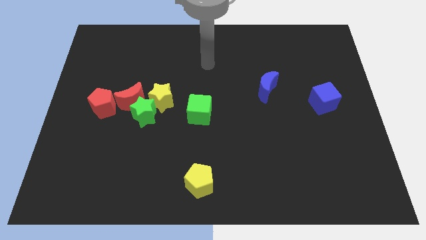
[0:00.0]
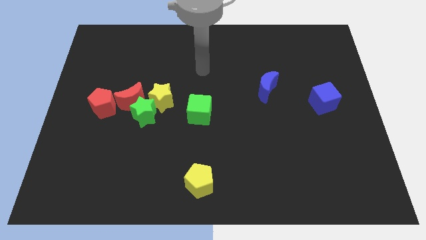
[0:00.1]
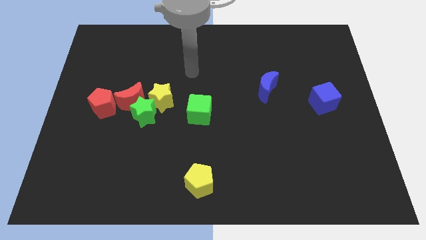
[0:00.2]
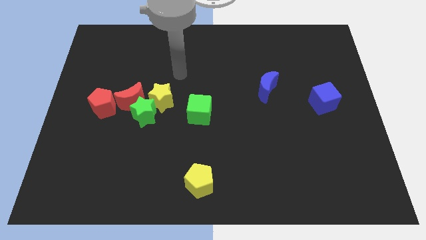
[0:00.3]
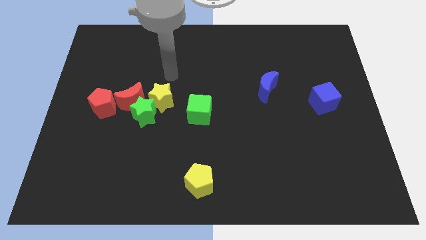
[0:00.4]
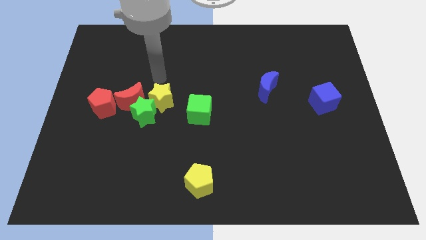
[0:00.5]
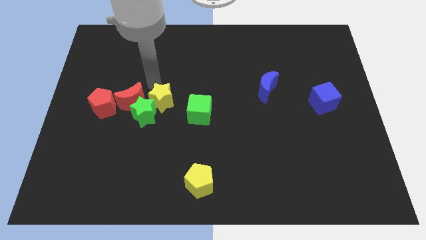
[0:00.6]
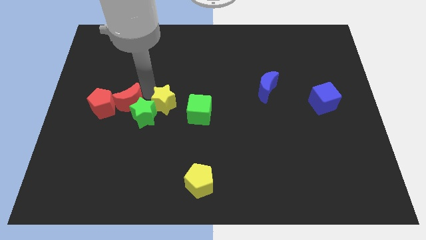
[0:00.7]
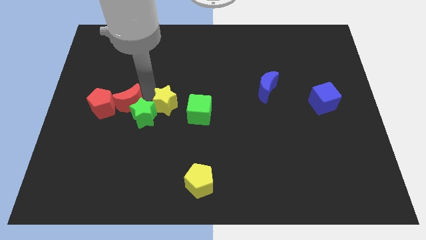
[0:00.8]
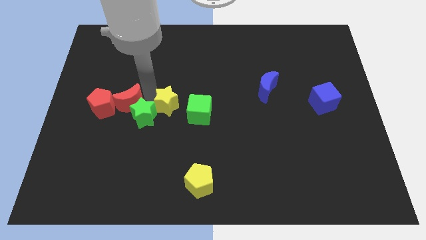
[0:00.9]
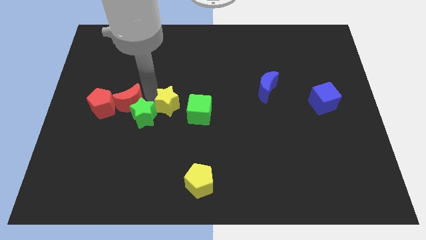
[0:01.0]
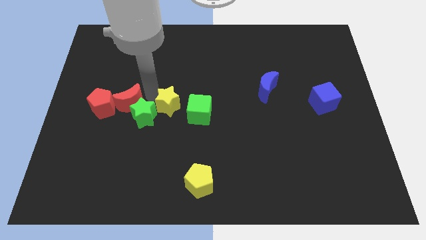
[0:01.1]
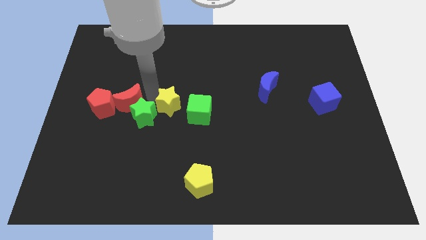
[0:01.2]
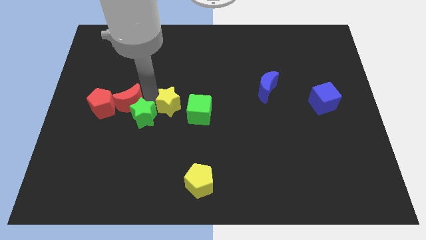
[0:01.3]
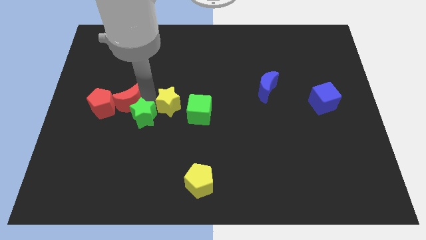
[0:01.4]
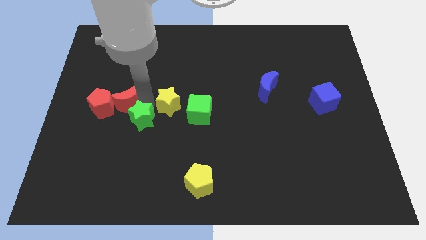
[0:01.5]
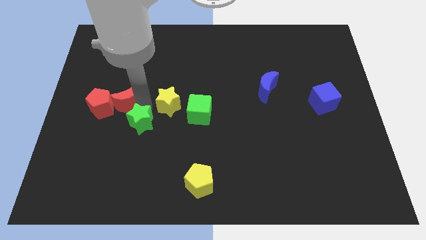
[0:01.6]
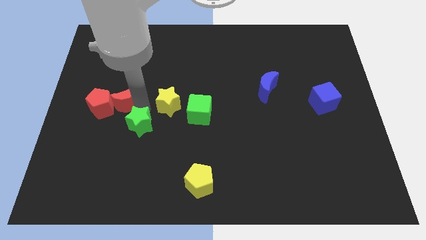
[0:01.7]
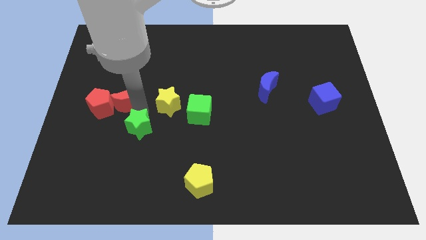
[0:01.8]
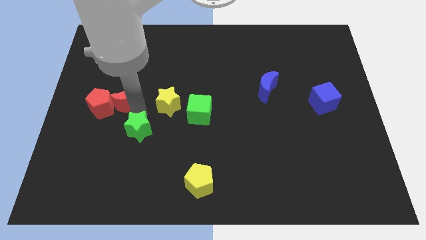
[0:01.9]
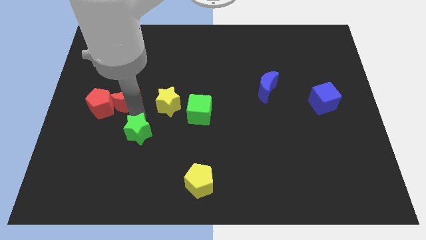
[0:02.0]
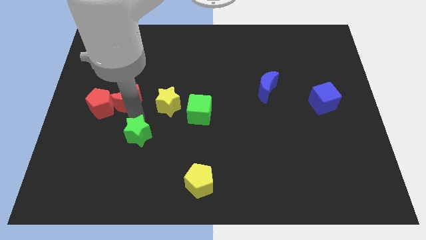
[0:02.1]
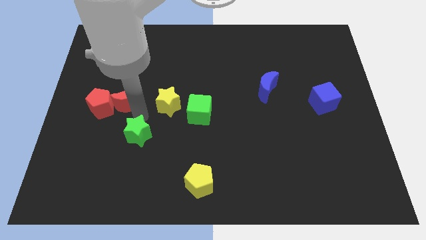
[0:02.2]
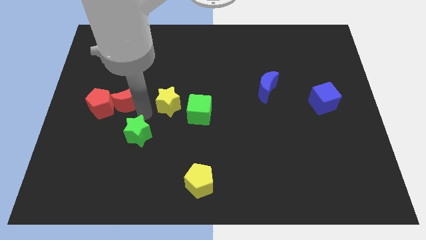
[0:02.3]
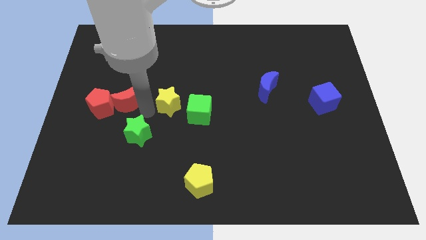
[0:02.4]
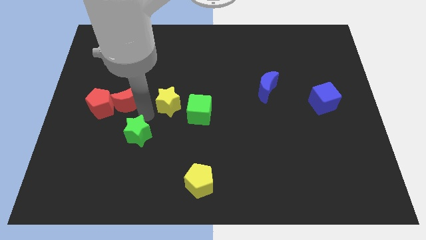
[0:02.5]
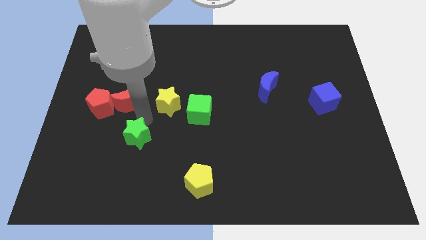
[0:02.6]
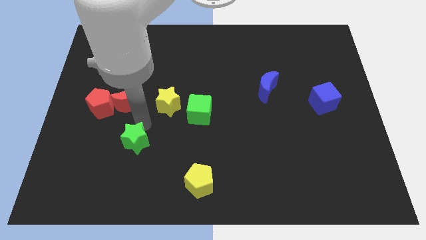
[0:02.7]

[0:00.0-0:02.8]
separate the green star from the red moon and yellow star

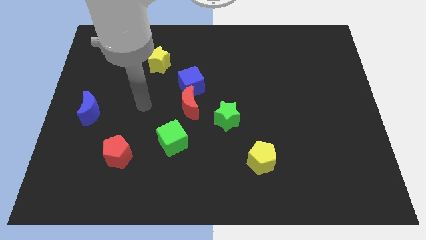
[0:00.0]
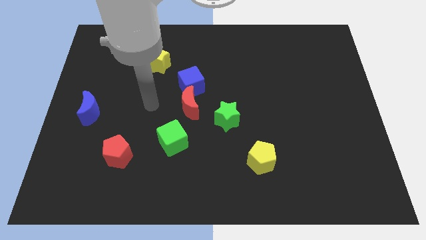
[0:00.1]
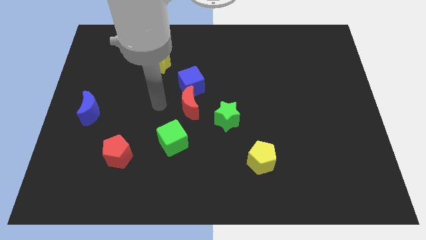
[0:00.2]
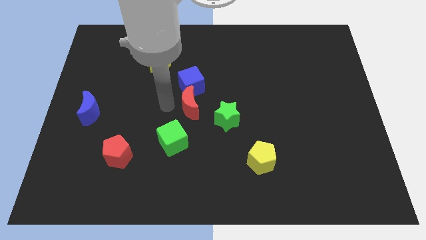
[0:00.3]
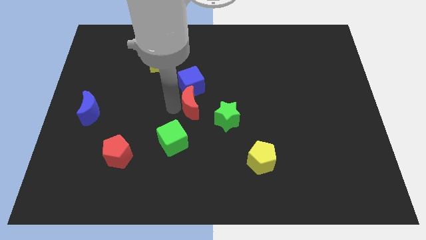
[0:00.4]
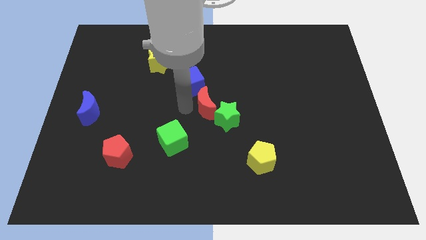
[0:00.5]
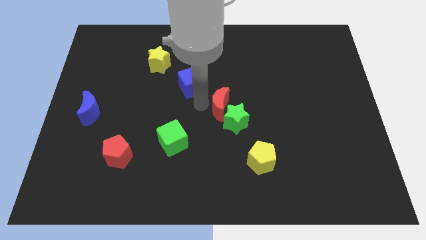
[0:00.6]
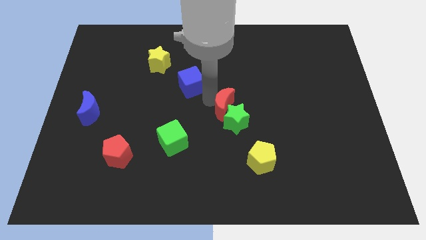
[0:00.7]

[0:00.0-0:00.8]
separate the blue cube from the red moon

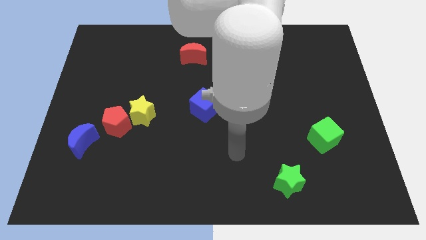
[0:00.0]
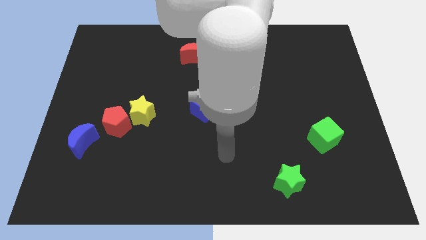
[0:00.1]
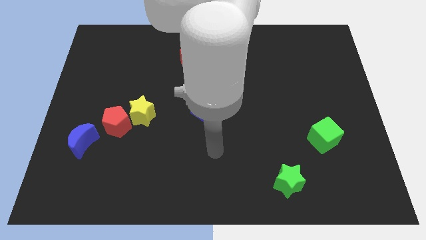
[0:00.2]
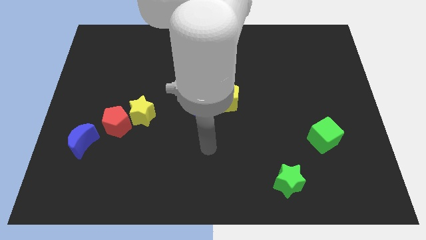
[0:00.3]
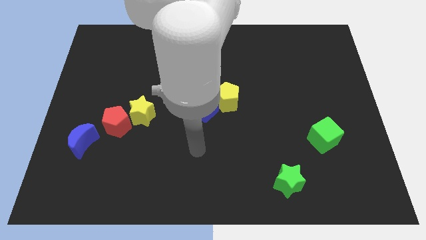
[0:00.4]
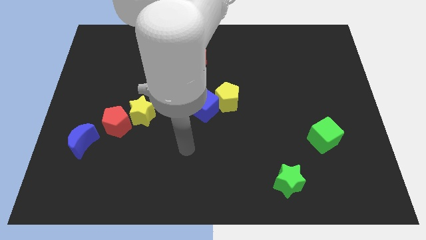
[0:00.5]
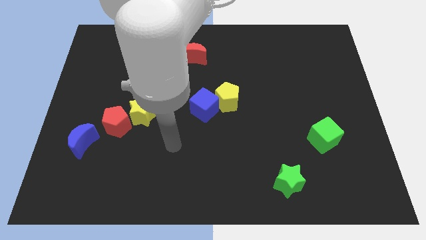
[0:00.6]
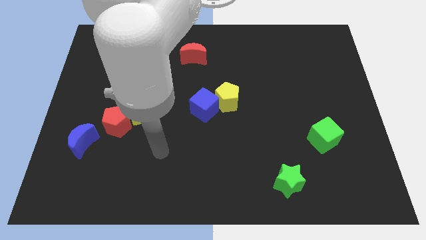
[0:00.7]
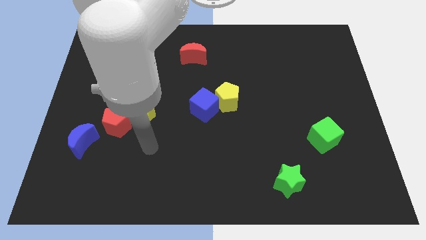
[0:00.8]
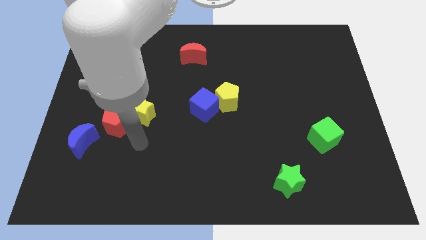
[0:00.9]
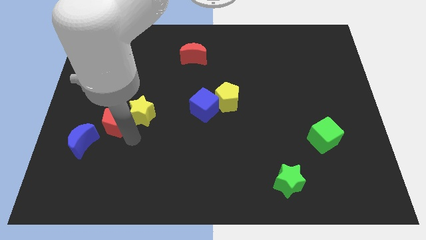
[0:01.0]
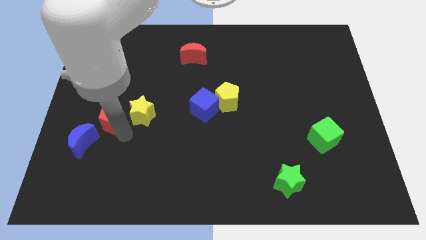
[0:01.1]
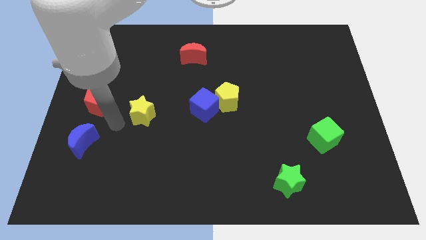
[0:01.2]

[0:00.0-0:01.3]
separate the yellow star from the red pentagon

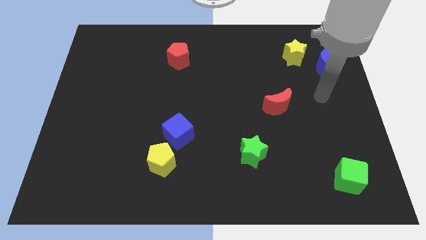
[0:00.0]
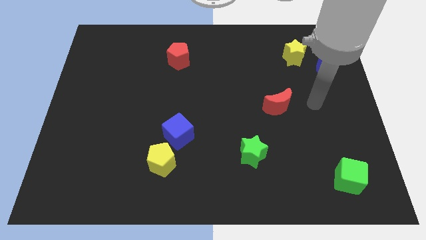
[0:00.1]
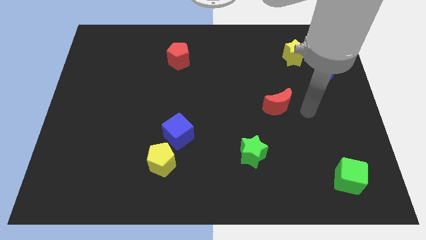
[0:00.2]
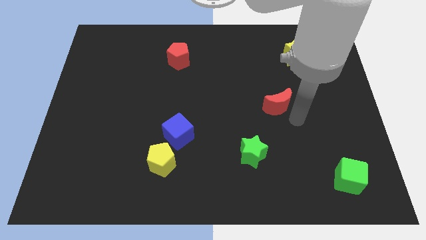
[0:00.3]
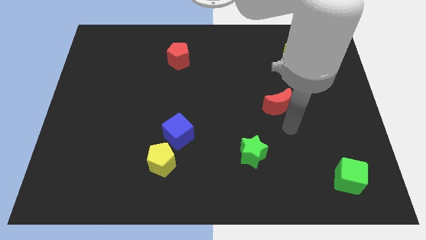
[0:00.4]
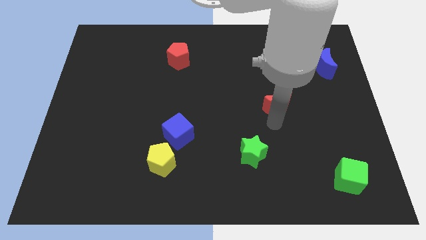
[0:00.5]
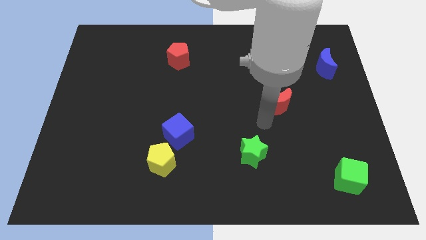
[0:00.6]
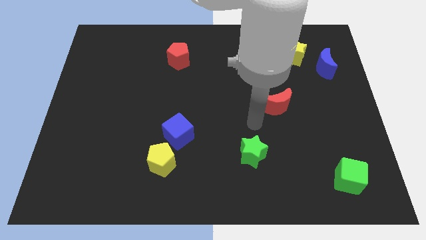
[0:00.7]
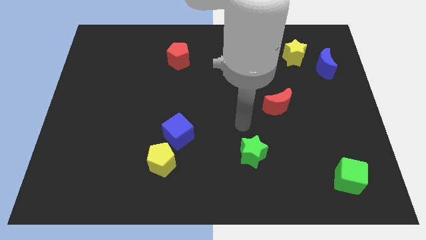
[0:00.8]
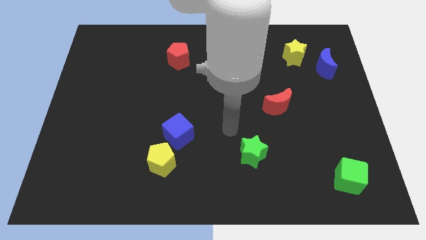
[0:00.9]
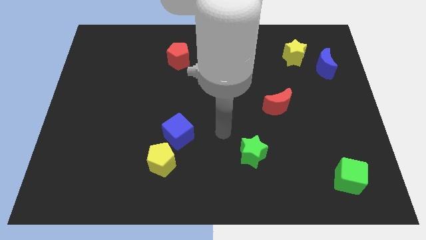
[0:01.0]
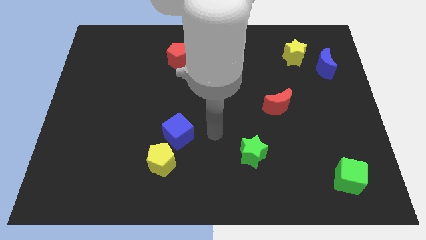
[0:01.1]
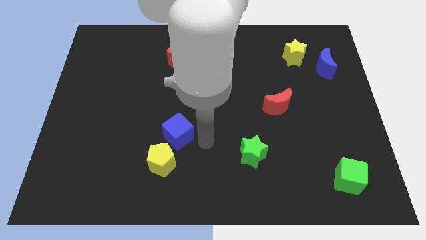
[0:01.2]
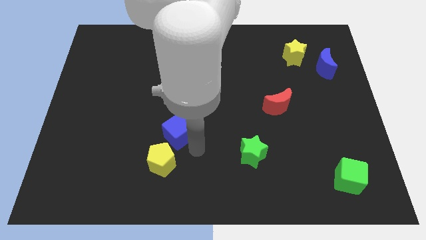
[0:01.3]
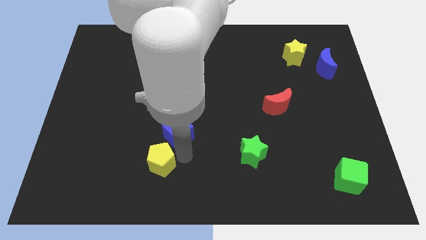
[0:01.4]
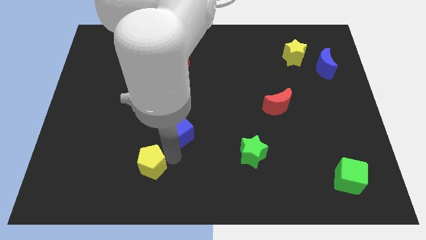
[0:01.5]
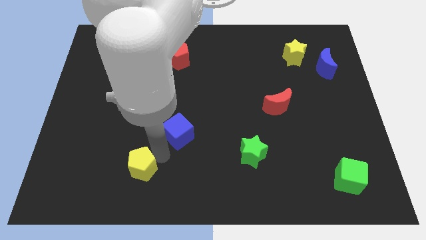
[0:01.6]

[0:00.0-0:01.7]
move the blue cube away from the yellow pentagon

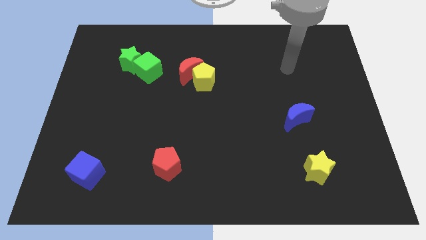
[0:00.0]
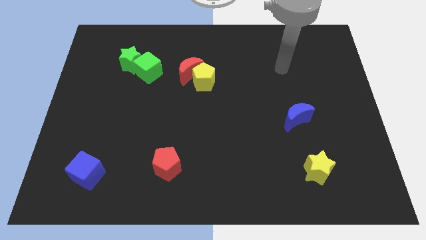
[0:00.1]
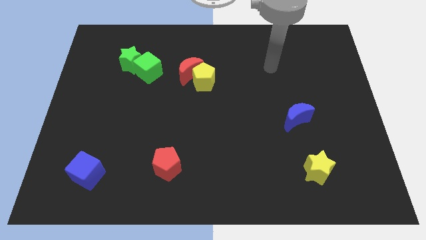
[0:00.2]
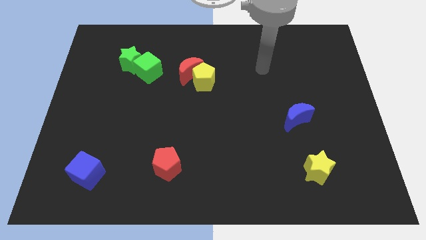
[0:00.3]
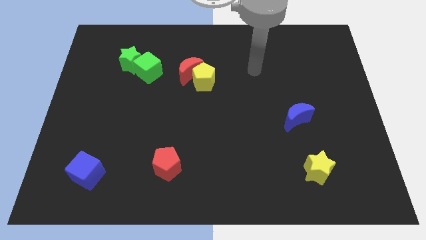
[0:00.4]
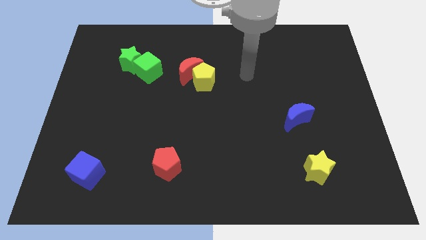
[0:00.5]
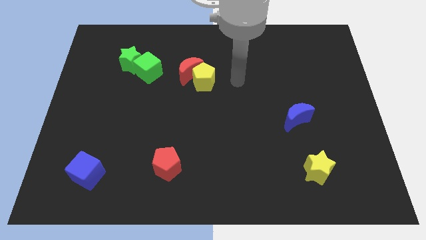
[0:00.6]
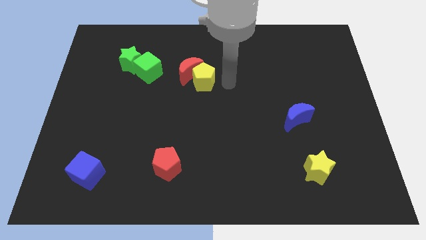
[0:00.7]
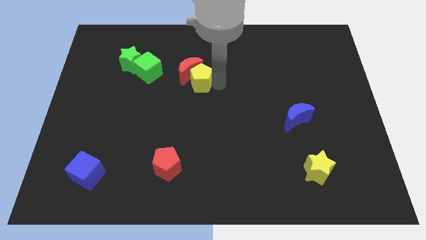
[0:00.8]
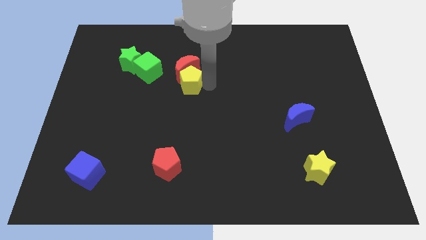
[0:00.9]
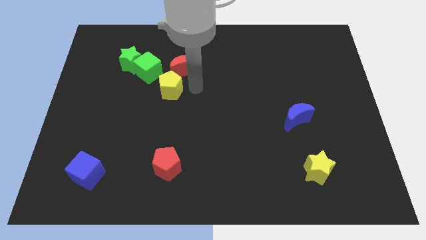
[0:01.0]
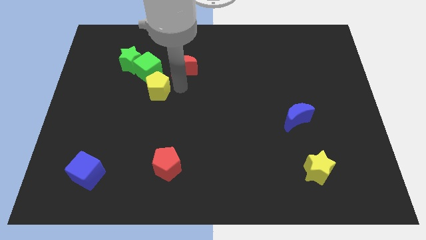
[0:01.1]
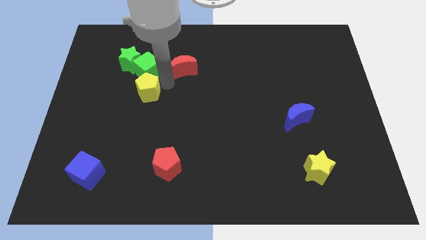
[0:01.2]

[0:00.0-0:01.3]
move the red moon away from the yellow pentagon

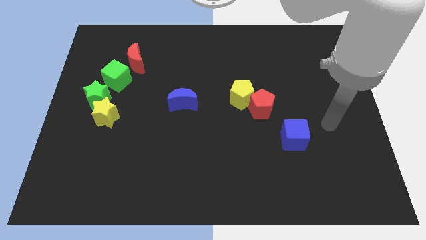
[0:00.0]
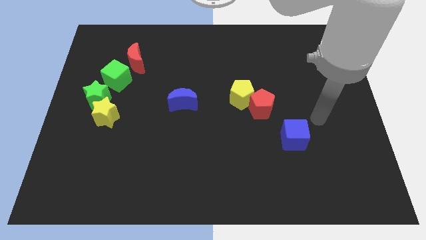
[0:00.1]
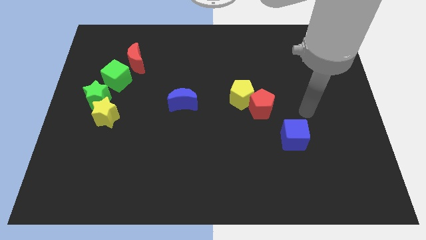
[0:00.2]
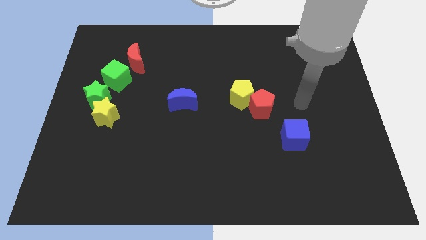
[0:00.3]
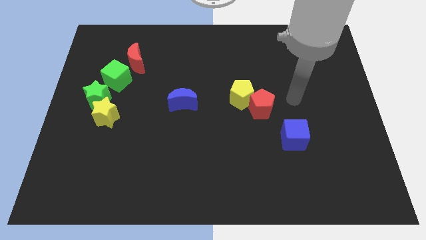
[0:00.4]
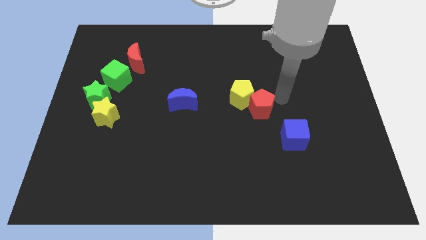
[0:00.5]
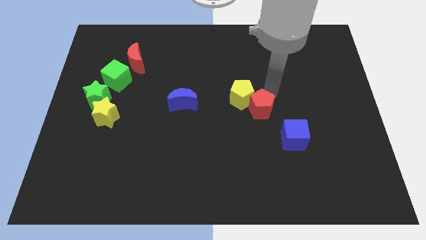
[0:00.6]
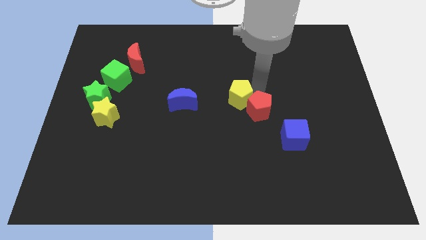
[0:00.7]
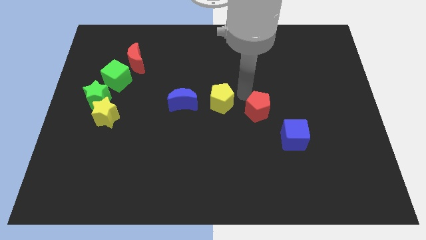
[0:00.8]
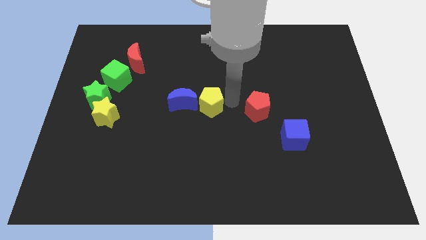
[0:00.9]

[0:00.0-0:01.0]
move the red pentagon away from the yellow pentagon

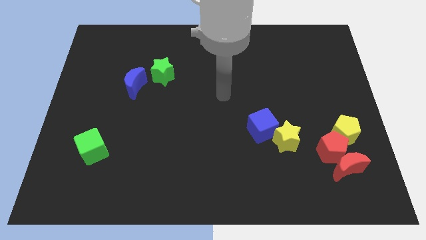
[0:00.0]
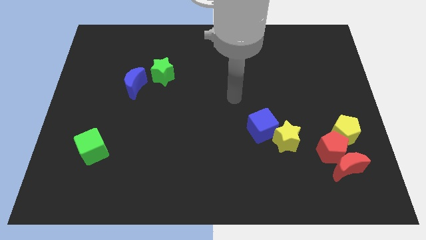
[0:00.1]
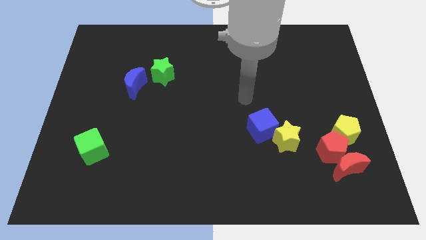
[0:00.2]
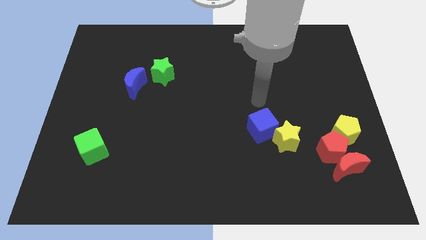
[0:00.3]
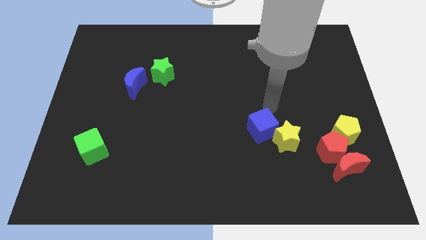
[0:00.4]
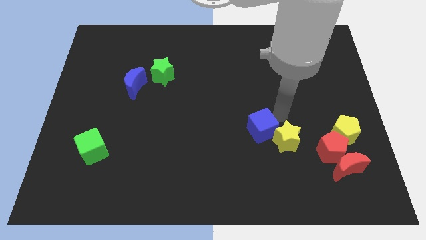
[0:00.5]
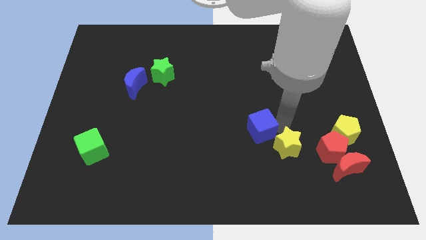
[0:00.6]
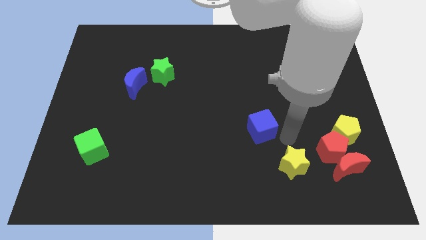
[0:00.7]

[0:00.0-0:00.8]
separate the blue cube from the yellow star
